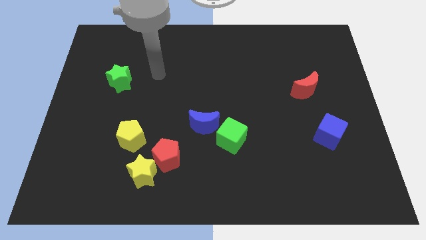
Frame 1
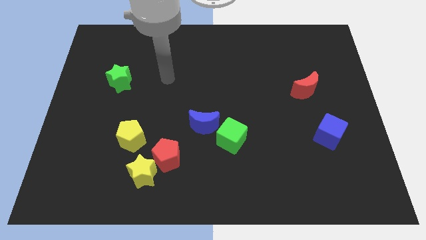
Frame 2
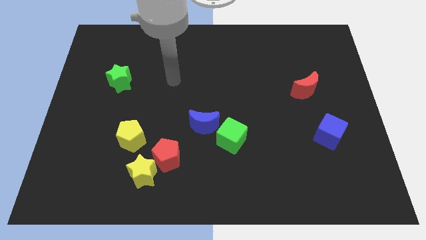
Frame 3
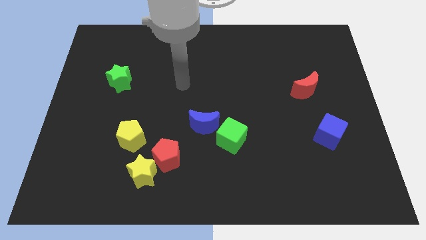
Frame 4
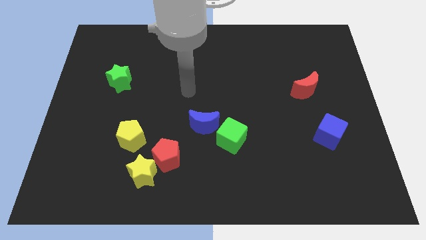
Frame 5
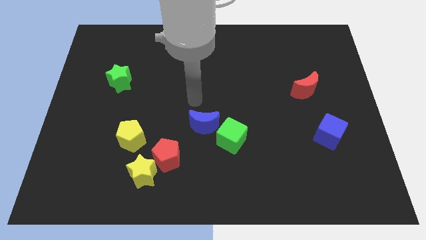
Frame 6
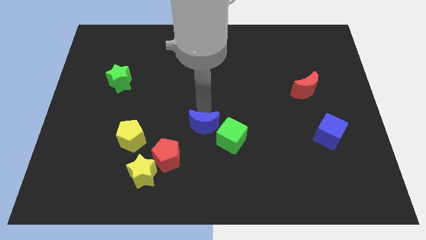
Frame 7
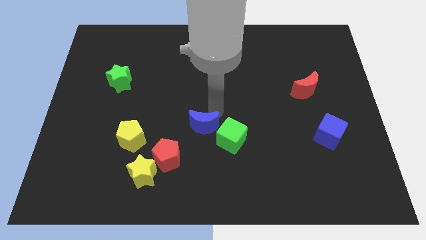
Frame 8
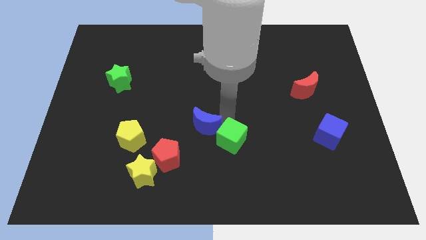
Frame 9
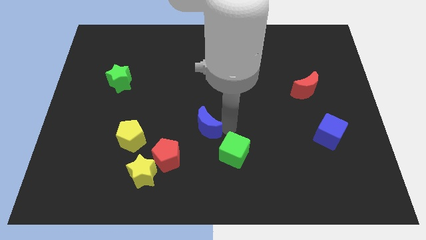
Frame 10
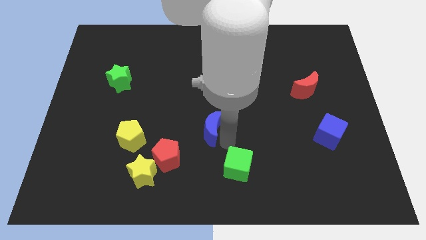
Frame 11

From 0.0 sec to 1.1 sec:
pull the blue moon apart from the green cube

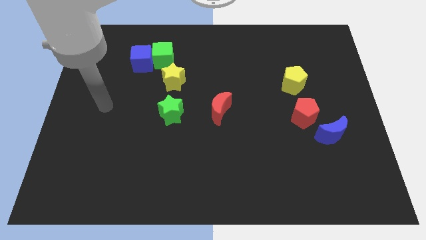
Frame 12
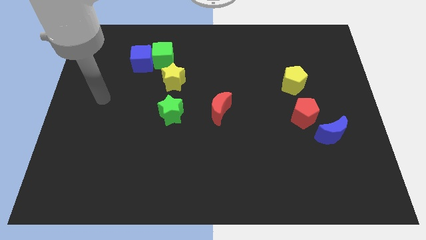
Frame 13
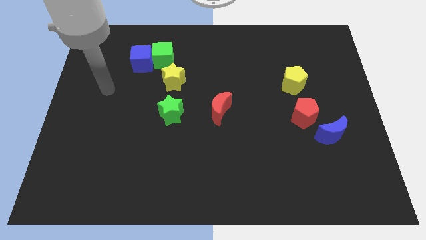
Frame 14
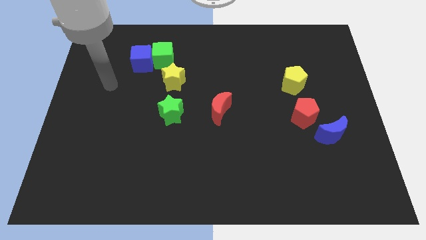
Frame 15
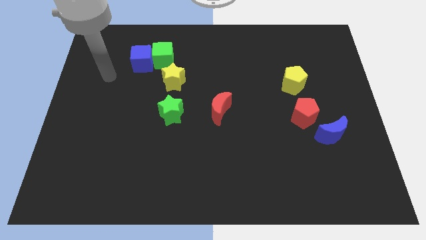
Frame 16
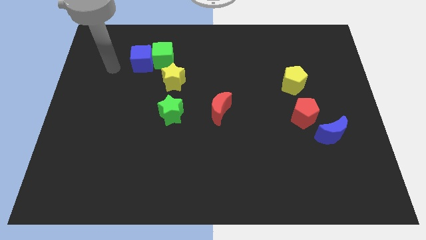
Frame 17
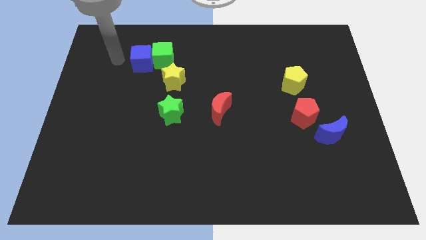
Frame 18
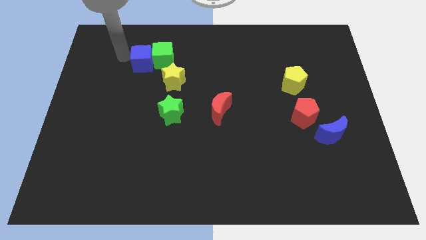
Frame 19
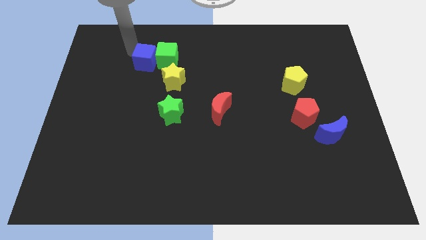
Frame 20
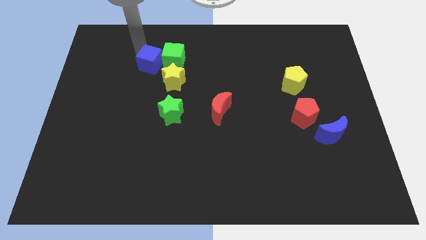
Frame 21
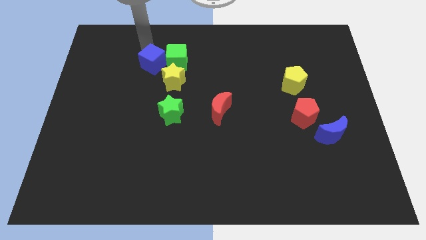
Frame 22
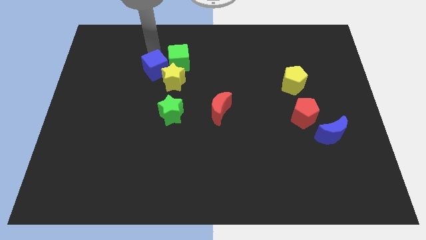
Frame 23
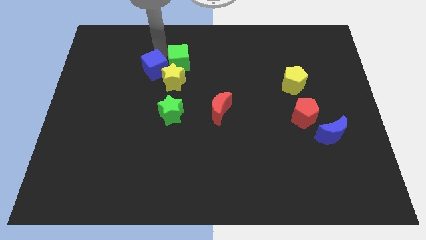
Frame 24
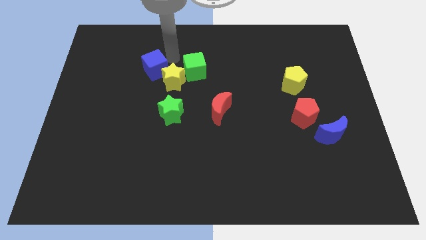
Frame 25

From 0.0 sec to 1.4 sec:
move the blue cube away from the green cube

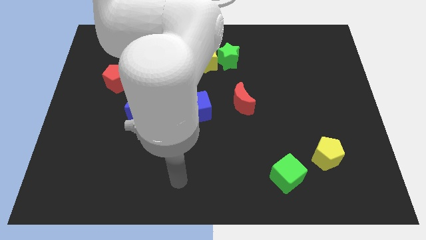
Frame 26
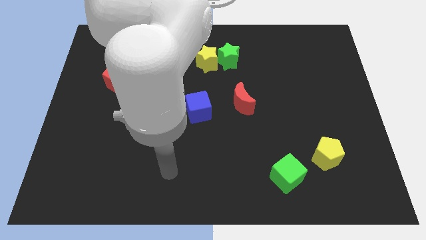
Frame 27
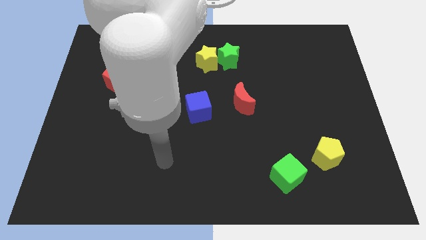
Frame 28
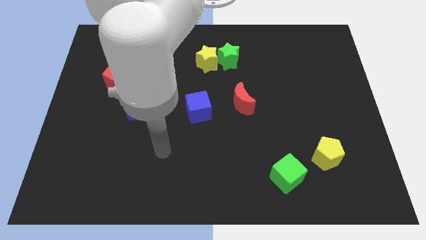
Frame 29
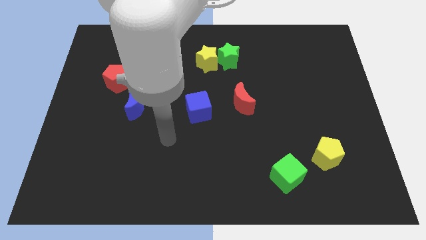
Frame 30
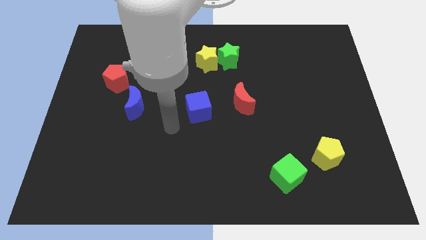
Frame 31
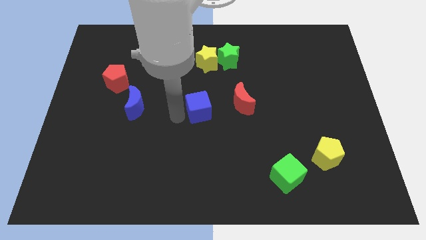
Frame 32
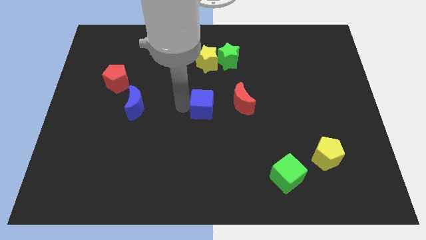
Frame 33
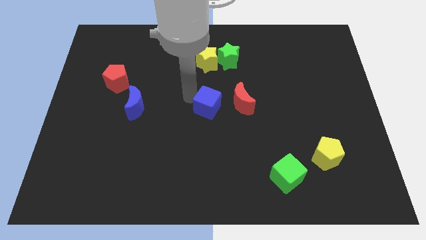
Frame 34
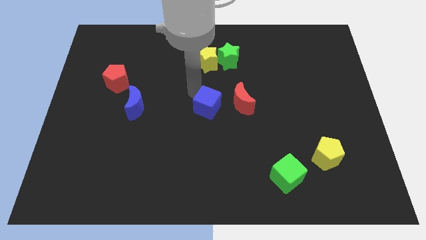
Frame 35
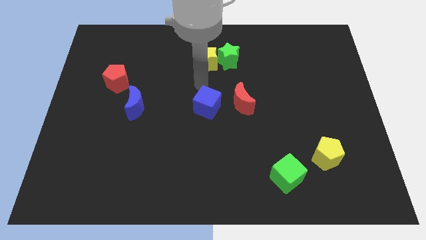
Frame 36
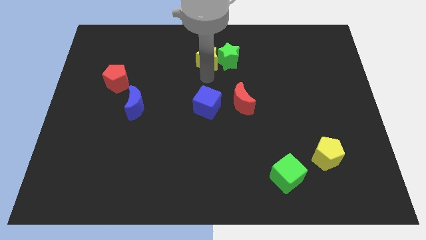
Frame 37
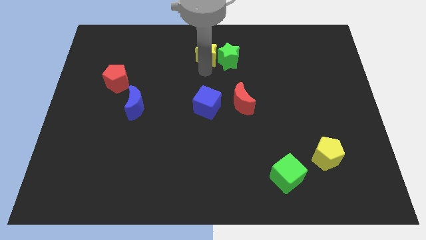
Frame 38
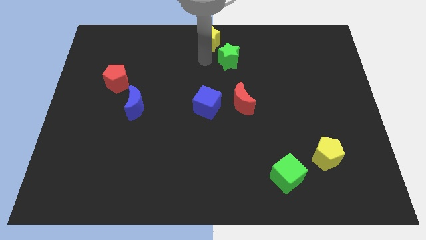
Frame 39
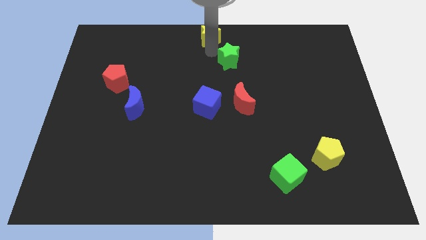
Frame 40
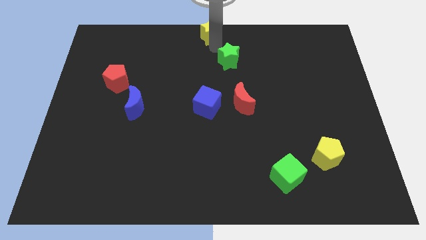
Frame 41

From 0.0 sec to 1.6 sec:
move the green star away from the yellow star

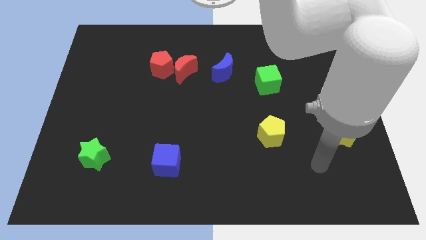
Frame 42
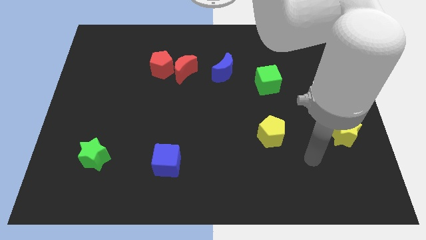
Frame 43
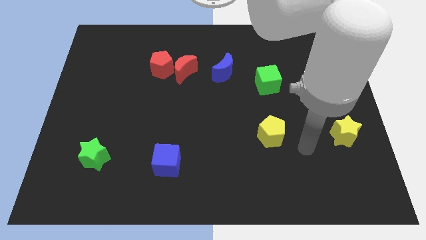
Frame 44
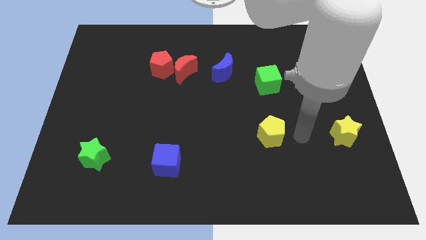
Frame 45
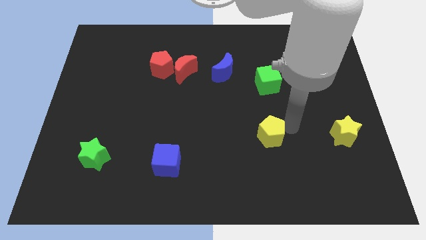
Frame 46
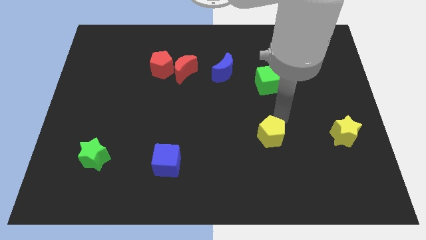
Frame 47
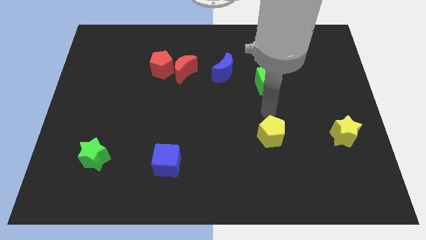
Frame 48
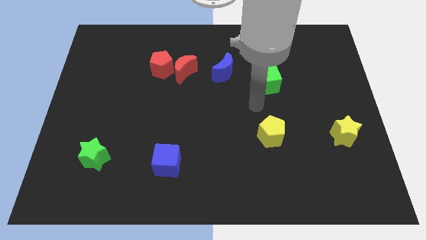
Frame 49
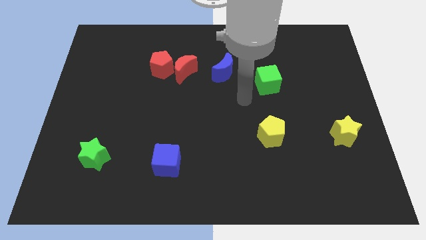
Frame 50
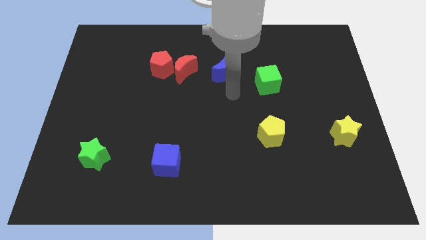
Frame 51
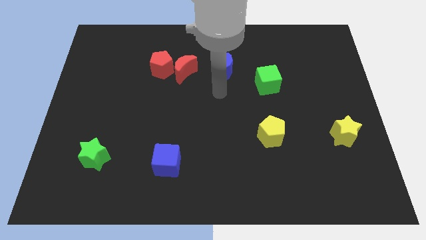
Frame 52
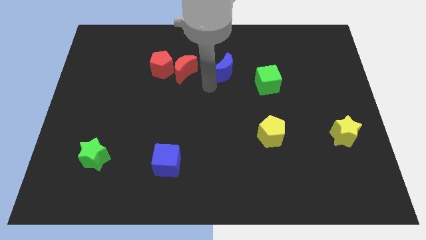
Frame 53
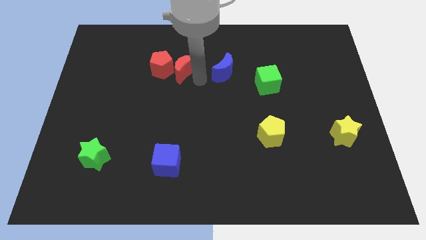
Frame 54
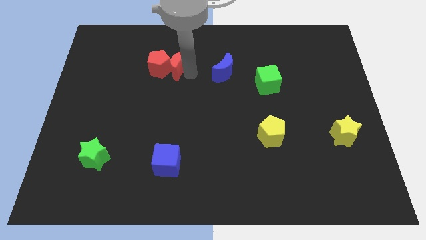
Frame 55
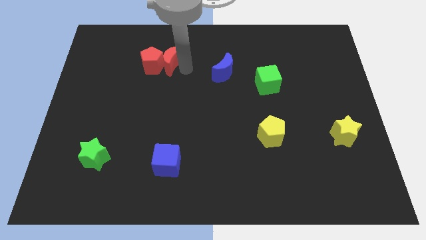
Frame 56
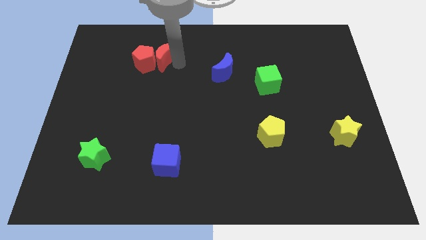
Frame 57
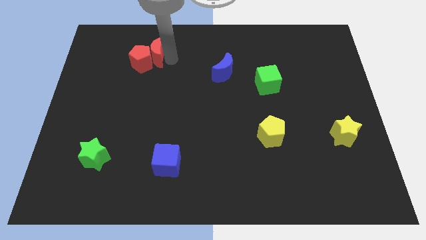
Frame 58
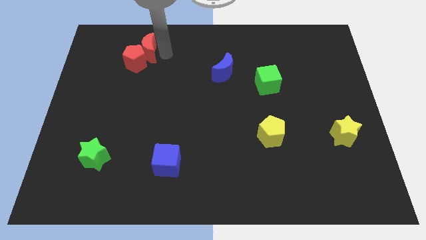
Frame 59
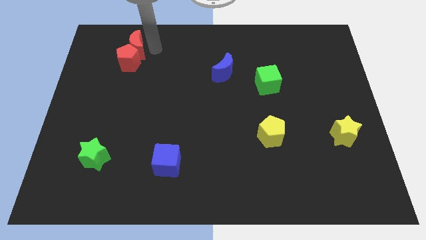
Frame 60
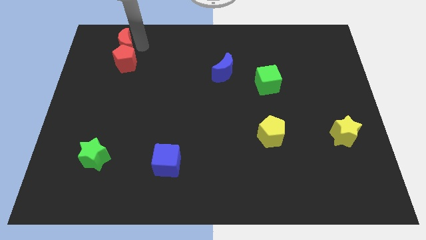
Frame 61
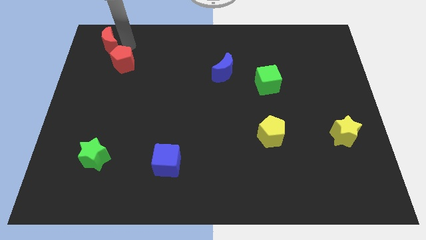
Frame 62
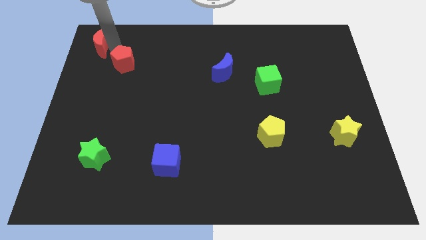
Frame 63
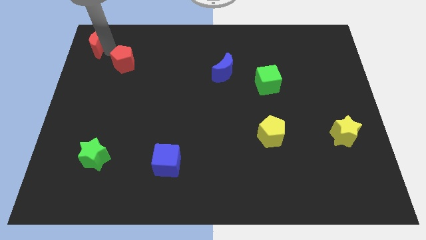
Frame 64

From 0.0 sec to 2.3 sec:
separate the red pentagon from the red moon

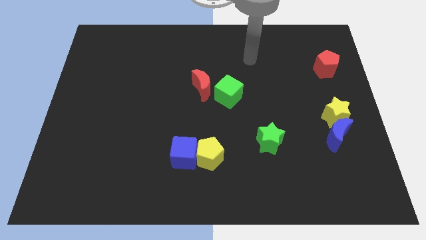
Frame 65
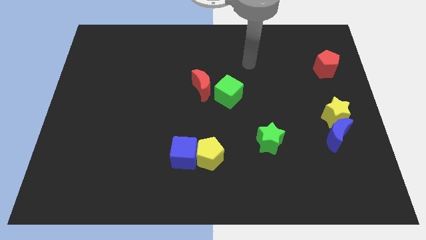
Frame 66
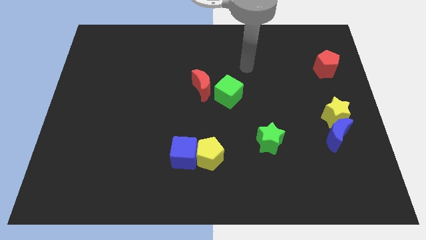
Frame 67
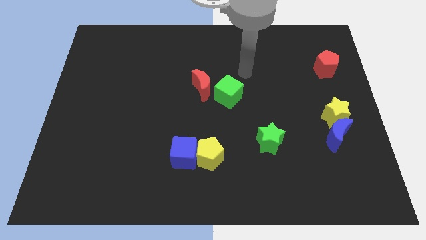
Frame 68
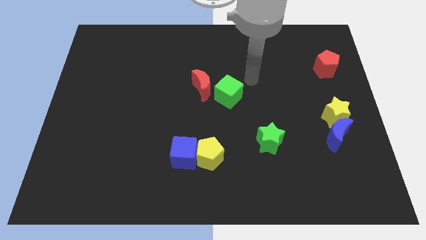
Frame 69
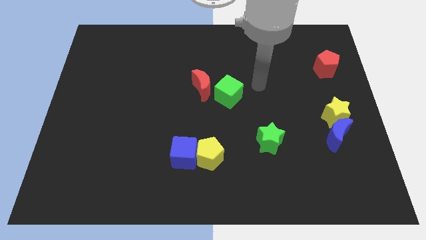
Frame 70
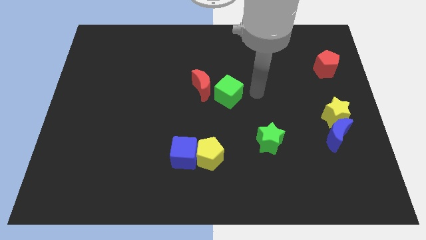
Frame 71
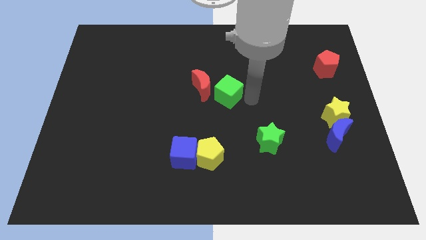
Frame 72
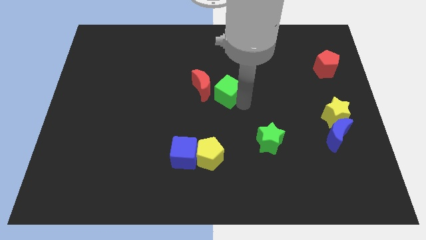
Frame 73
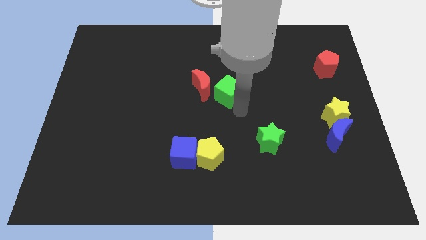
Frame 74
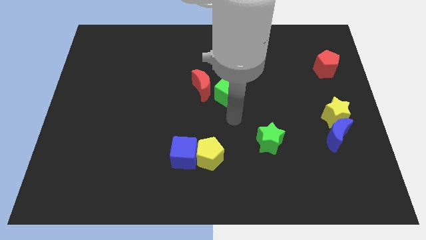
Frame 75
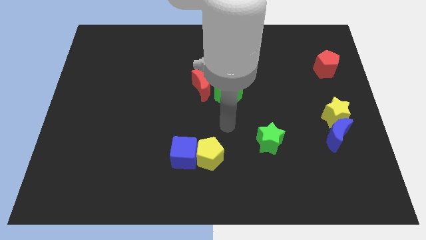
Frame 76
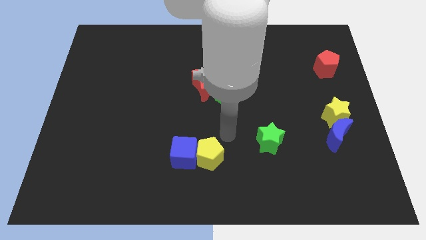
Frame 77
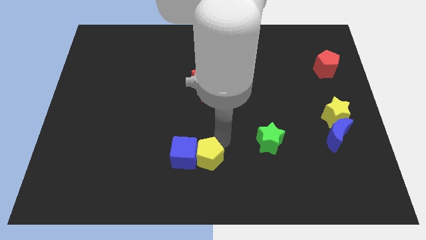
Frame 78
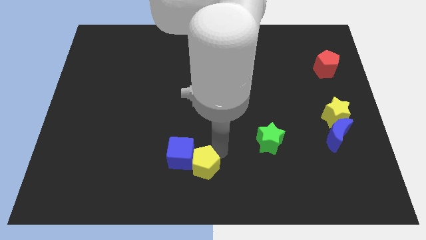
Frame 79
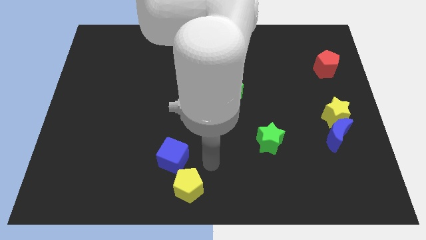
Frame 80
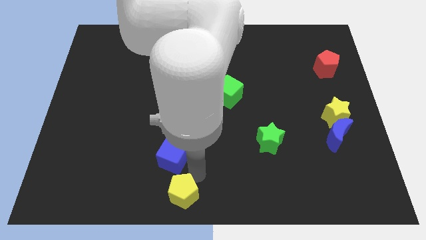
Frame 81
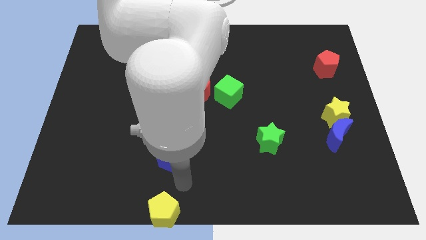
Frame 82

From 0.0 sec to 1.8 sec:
pull the blue cube apart from the yellow pentagon

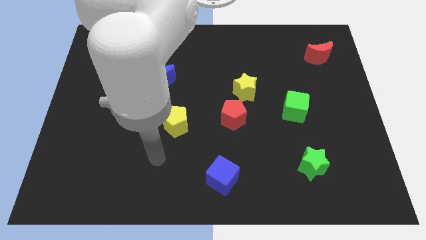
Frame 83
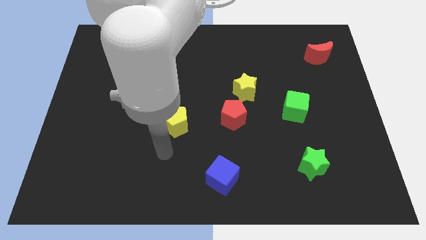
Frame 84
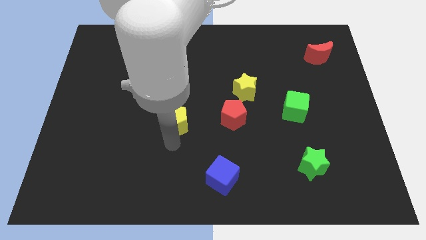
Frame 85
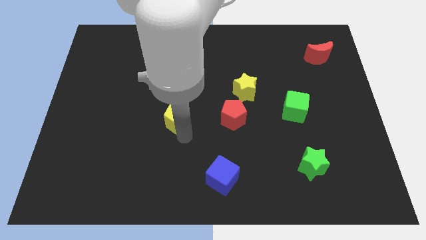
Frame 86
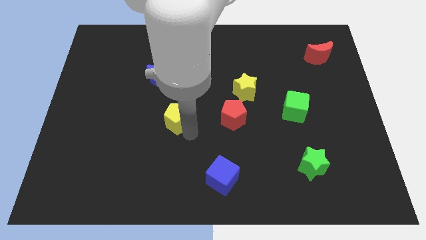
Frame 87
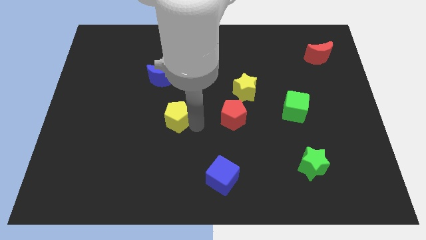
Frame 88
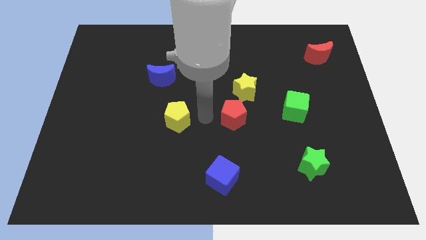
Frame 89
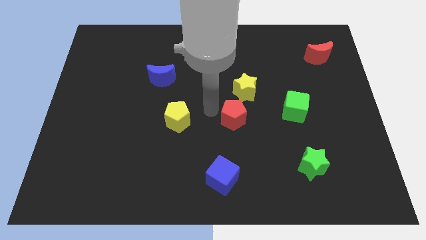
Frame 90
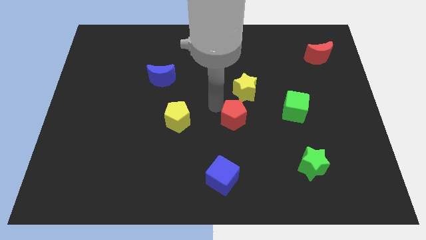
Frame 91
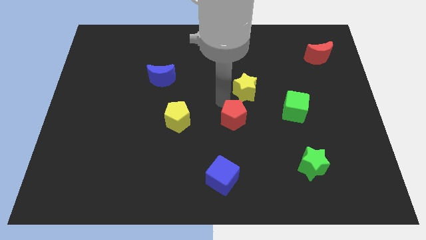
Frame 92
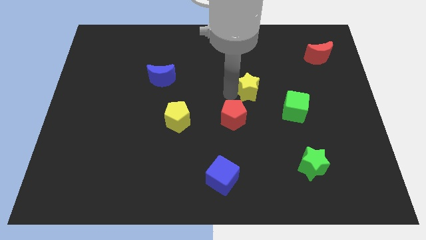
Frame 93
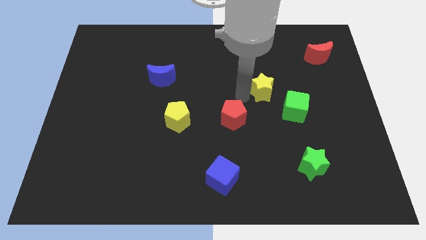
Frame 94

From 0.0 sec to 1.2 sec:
separate the red pentagon from the yellow star

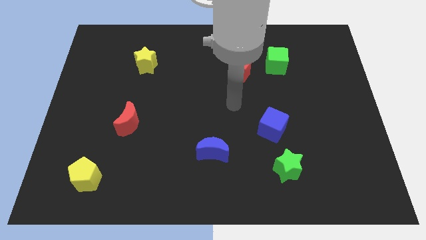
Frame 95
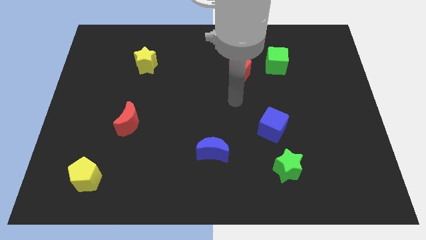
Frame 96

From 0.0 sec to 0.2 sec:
separate the red pentagon from the green cube
